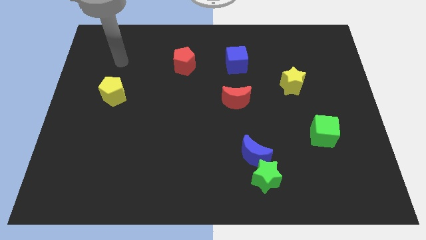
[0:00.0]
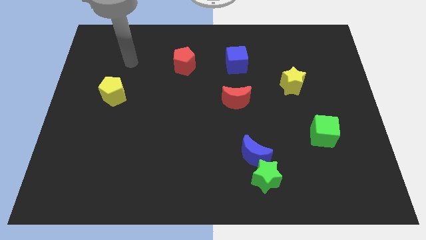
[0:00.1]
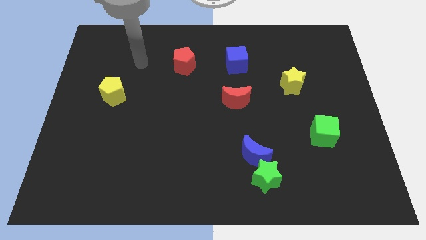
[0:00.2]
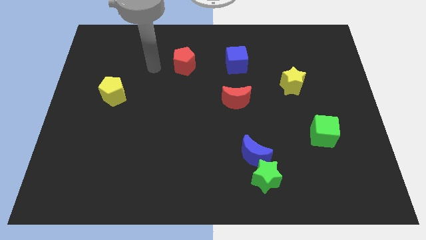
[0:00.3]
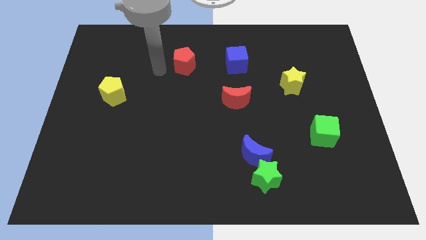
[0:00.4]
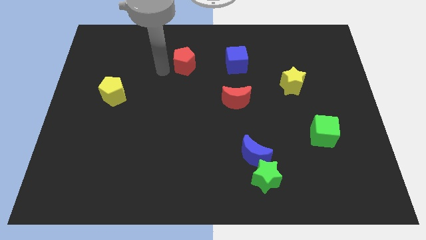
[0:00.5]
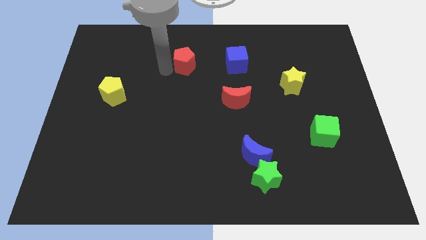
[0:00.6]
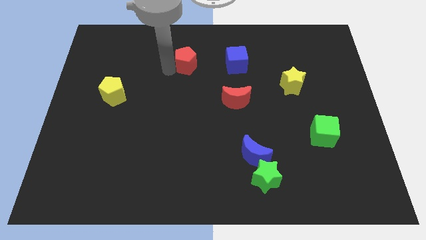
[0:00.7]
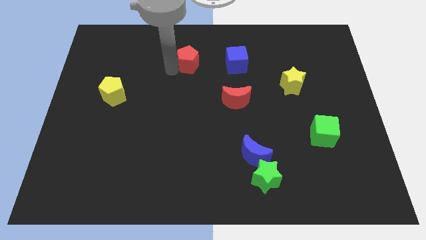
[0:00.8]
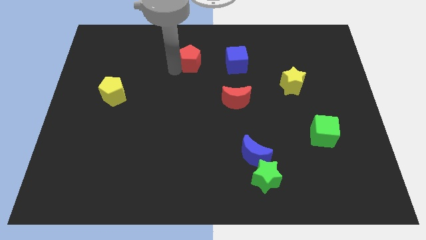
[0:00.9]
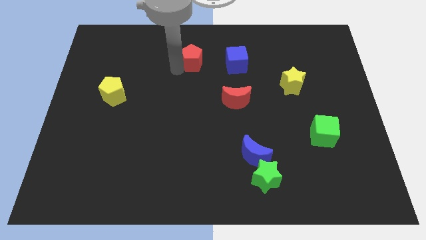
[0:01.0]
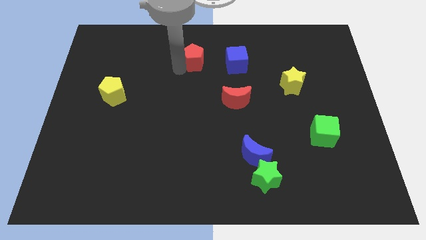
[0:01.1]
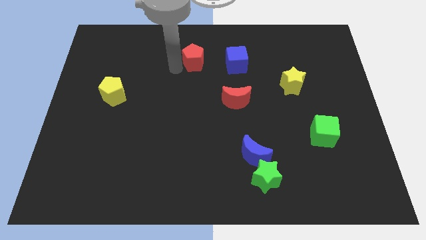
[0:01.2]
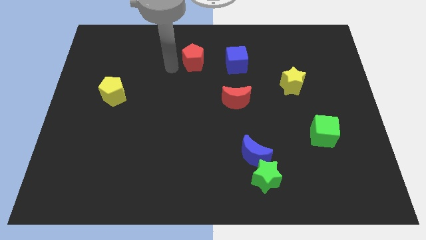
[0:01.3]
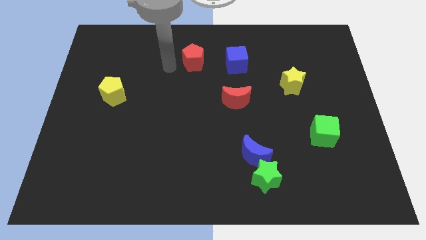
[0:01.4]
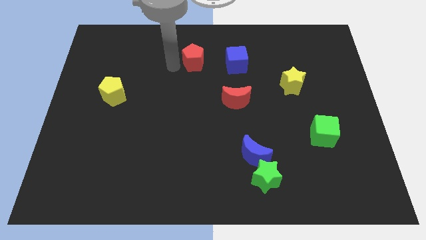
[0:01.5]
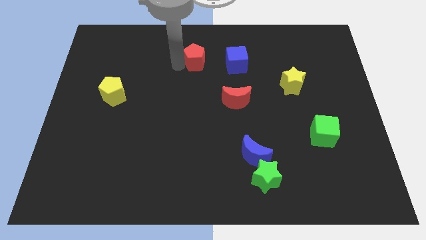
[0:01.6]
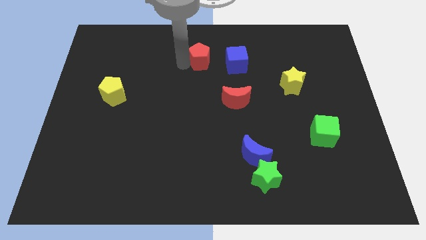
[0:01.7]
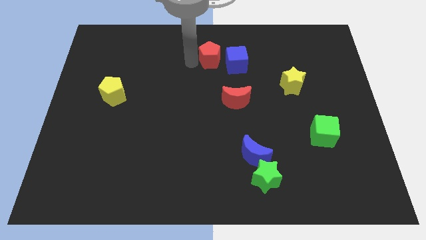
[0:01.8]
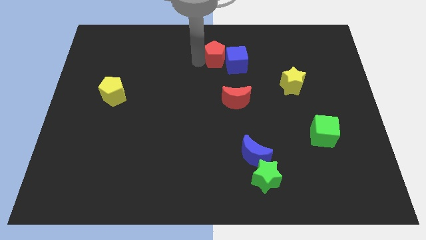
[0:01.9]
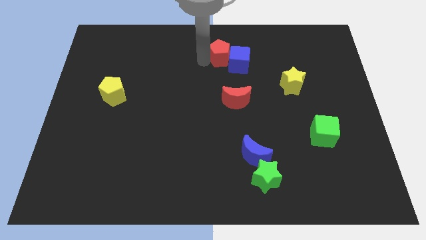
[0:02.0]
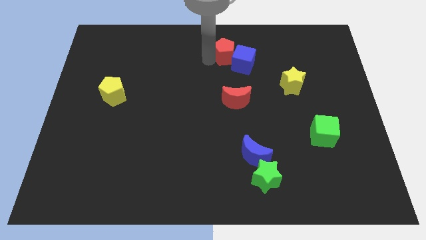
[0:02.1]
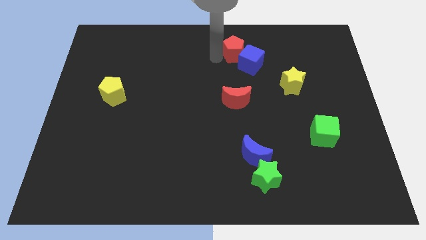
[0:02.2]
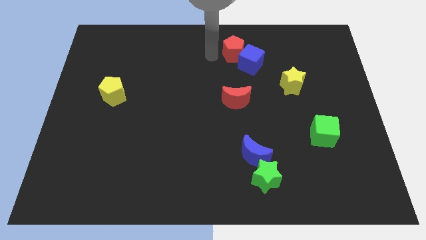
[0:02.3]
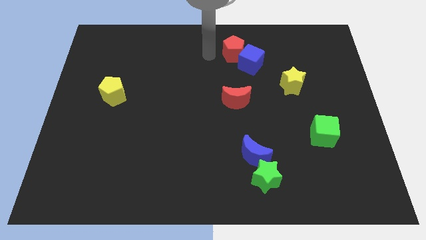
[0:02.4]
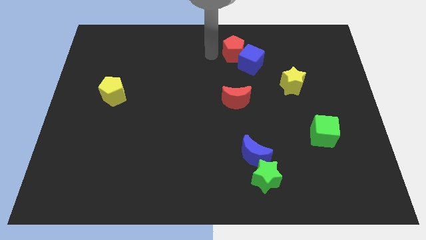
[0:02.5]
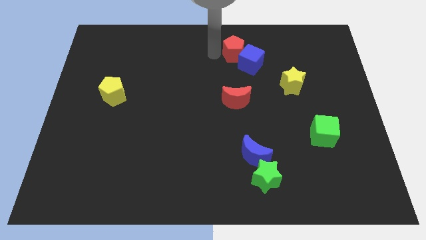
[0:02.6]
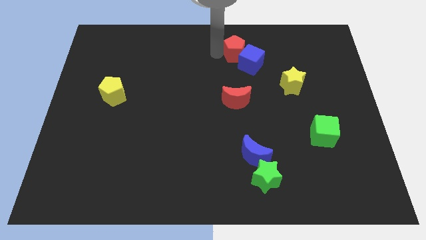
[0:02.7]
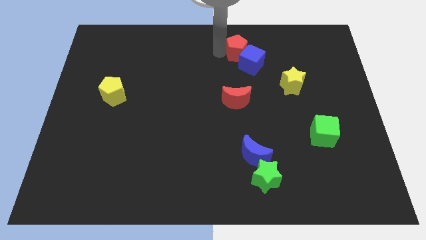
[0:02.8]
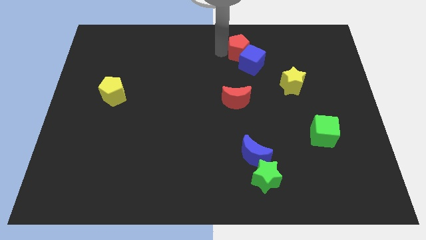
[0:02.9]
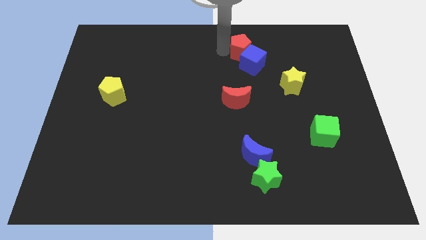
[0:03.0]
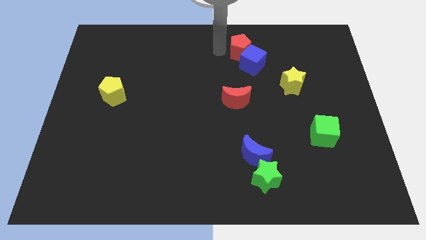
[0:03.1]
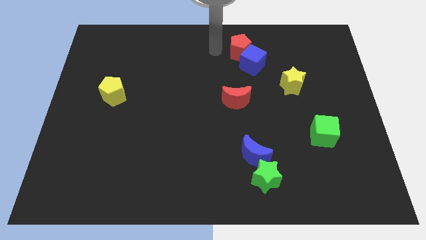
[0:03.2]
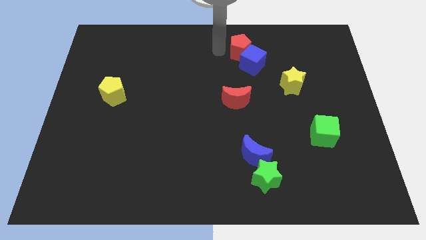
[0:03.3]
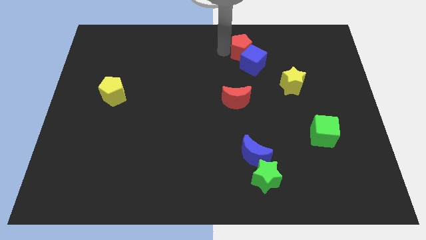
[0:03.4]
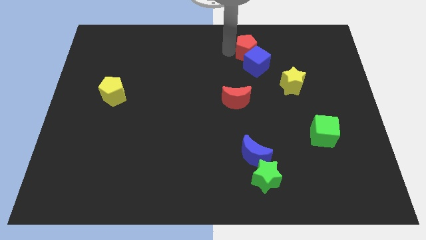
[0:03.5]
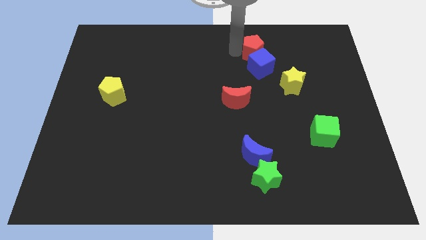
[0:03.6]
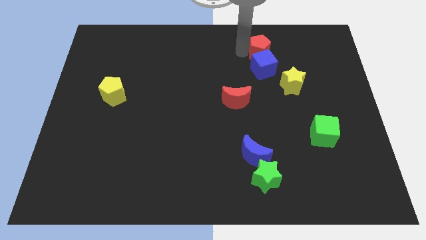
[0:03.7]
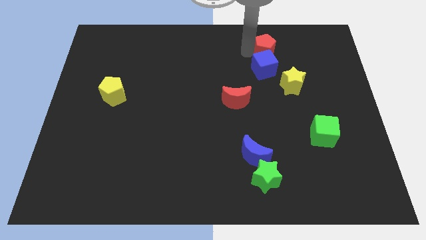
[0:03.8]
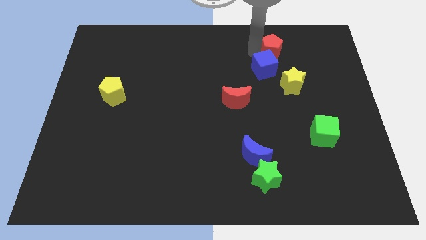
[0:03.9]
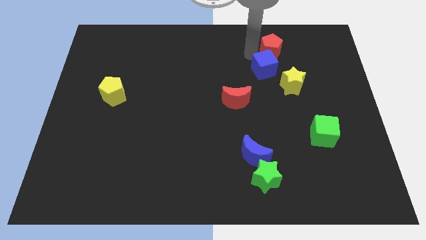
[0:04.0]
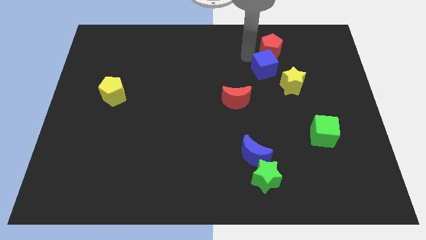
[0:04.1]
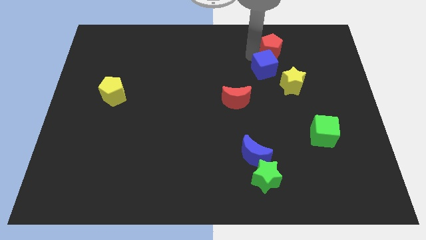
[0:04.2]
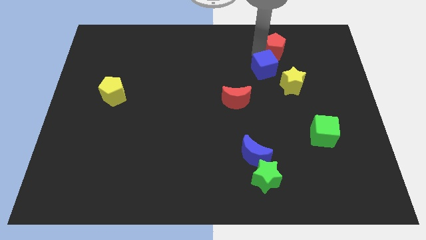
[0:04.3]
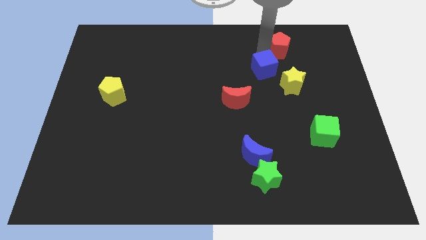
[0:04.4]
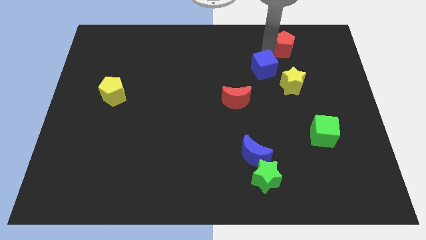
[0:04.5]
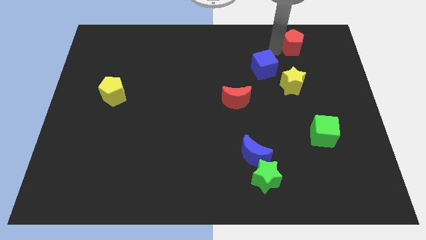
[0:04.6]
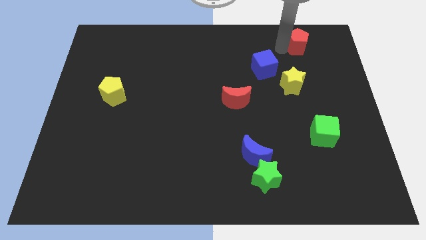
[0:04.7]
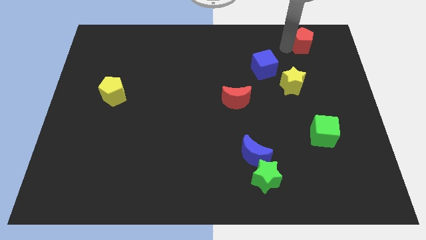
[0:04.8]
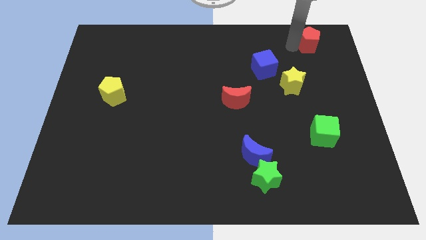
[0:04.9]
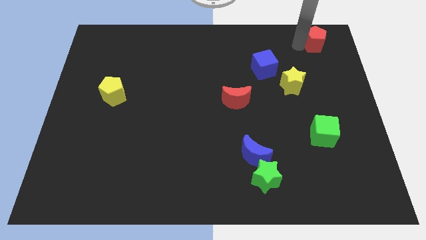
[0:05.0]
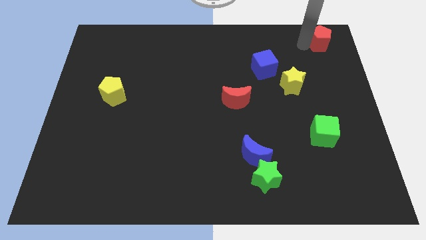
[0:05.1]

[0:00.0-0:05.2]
put the red pentagon to the top right corner
